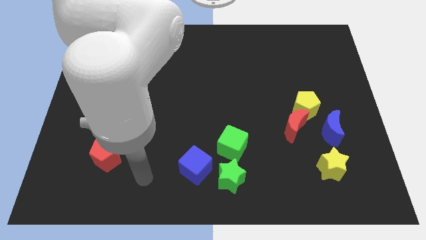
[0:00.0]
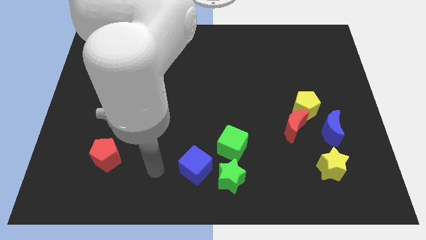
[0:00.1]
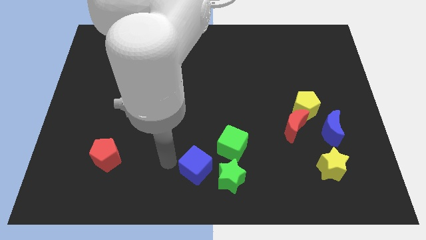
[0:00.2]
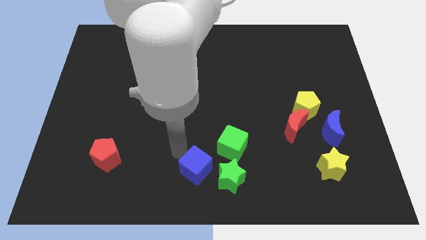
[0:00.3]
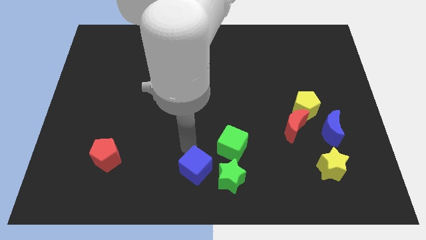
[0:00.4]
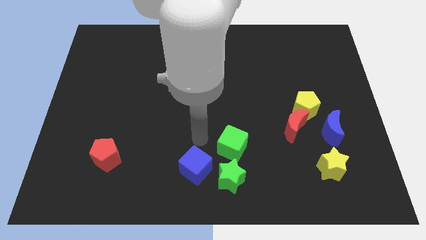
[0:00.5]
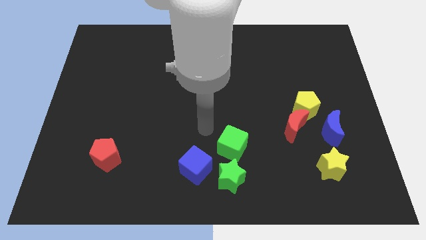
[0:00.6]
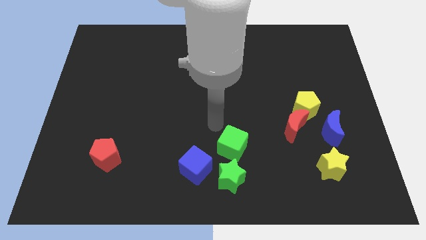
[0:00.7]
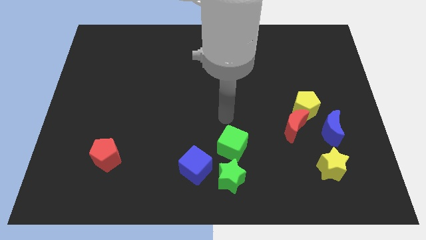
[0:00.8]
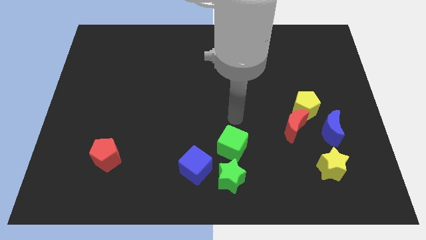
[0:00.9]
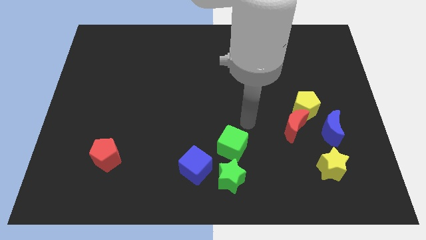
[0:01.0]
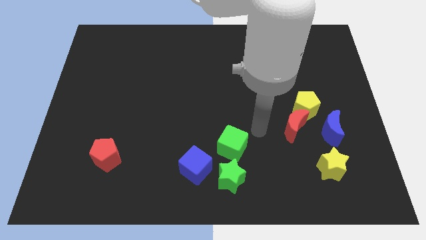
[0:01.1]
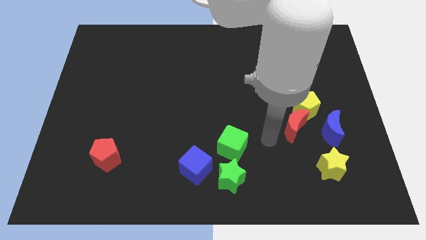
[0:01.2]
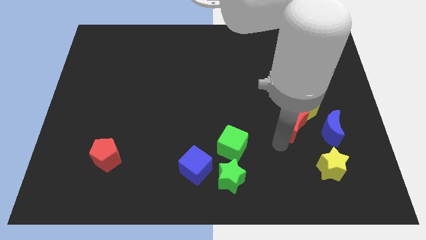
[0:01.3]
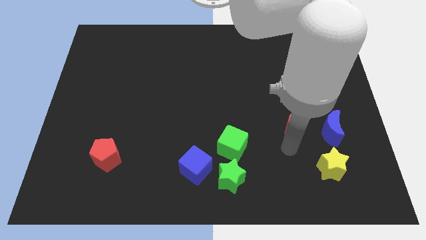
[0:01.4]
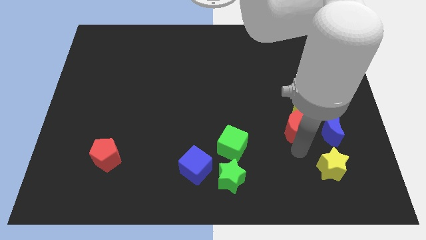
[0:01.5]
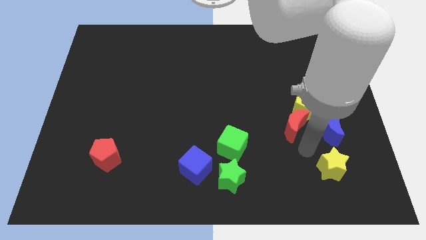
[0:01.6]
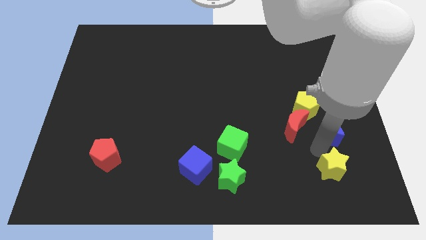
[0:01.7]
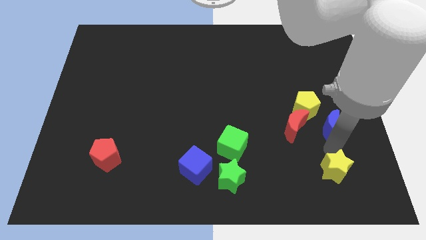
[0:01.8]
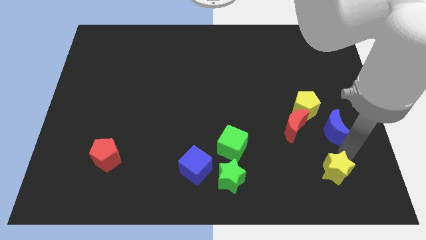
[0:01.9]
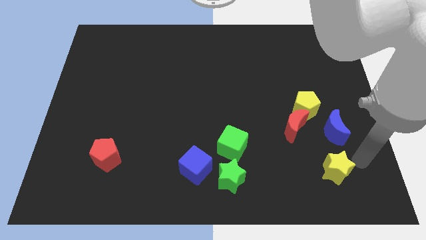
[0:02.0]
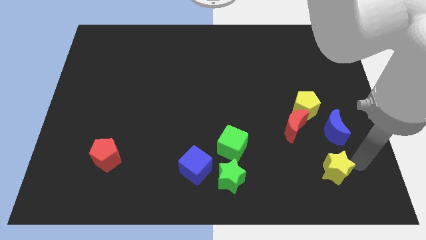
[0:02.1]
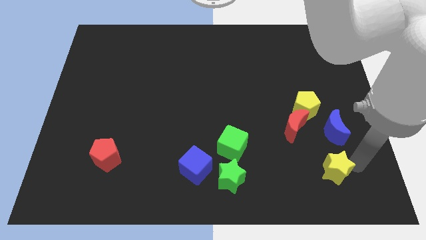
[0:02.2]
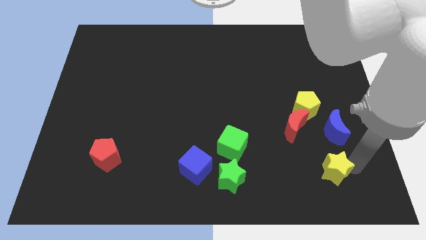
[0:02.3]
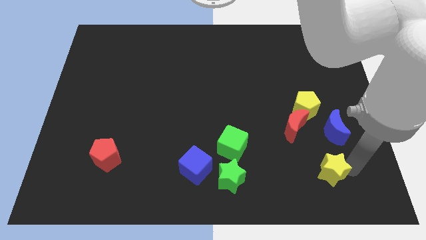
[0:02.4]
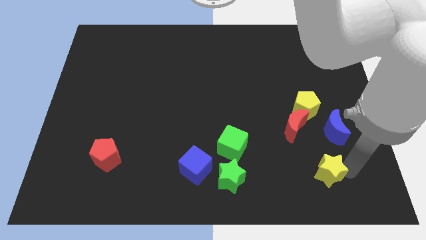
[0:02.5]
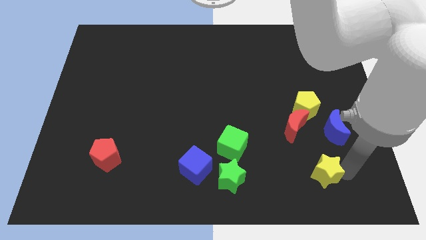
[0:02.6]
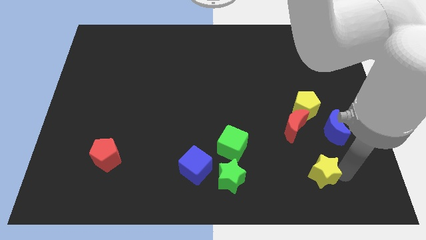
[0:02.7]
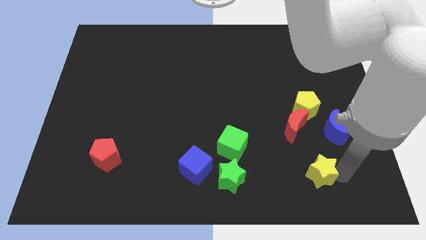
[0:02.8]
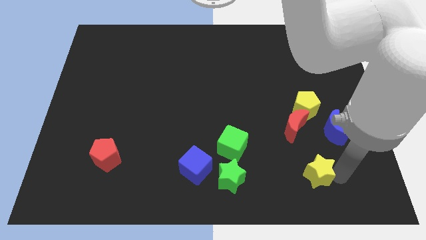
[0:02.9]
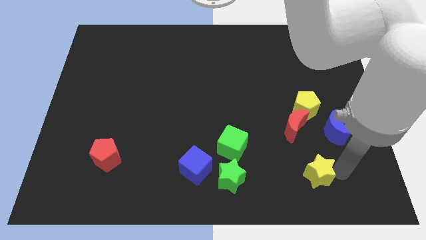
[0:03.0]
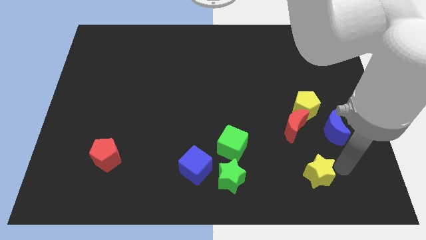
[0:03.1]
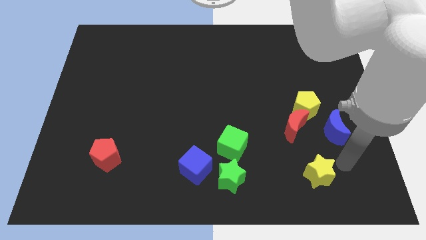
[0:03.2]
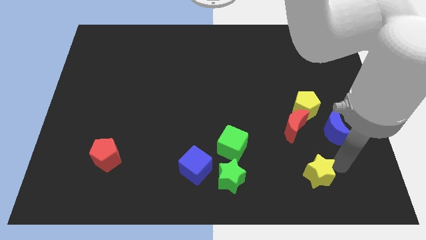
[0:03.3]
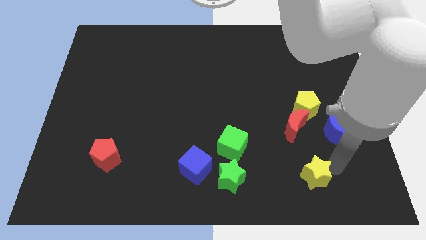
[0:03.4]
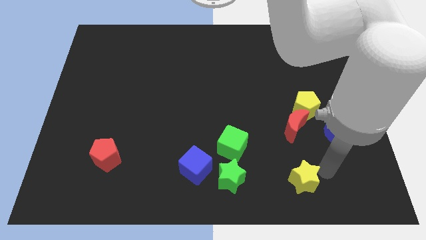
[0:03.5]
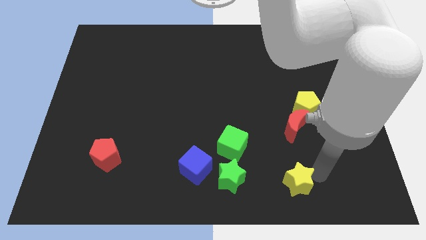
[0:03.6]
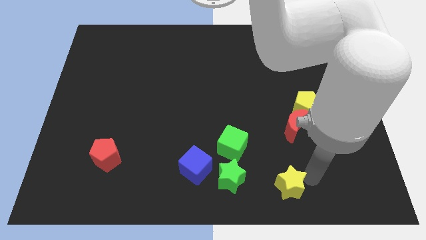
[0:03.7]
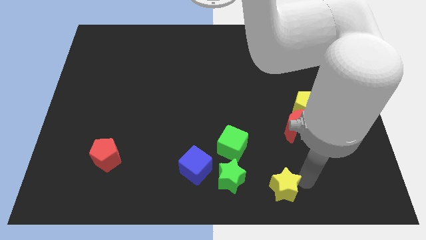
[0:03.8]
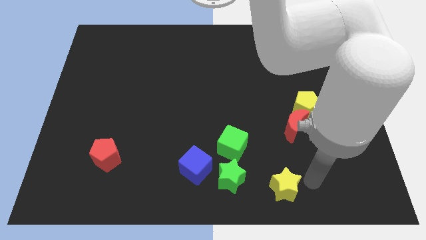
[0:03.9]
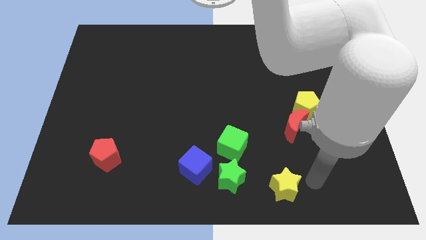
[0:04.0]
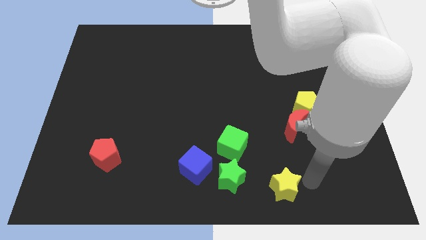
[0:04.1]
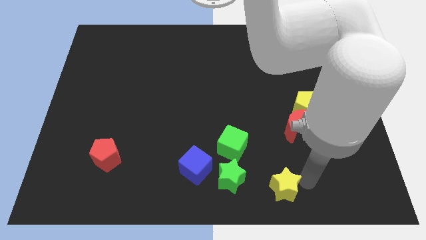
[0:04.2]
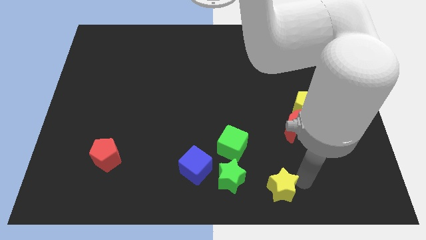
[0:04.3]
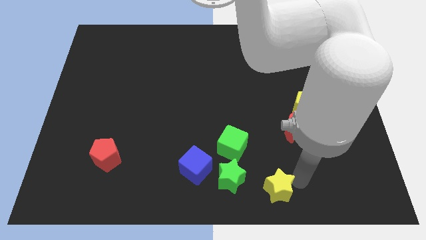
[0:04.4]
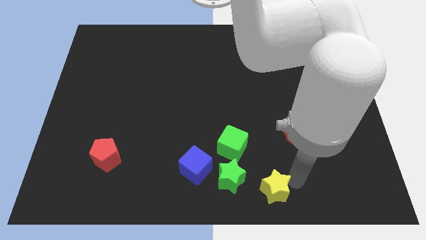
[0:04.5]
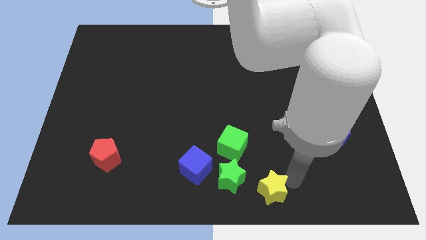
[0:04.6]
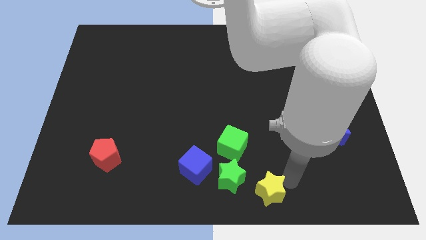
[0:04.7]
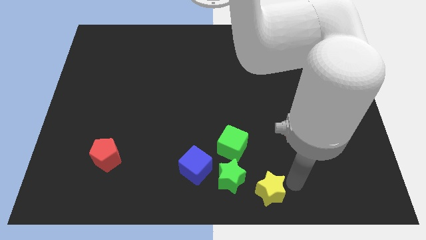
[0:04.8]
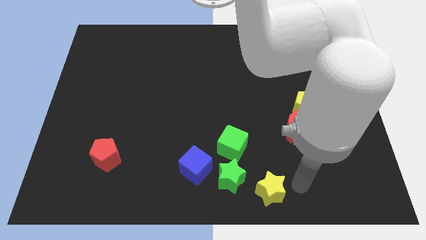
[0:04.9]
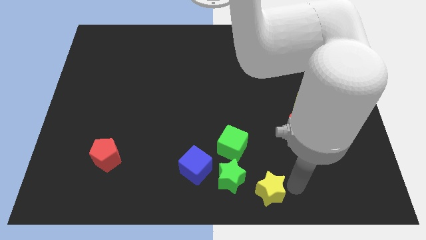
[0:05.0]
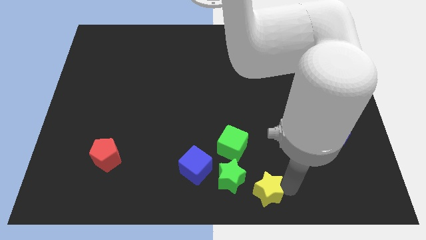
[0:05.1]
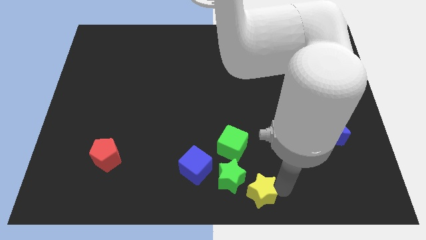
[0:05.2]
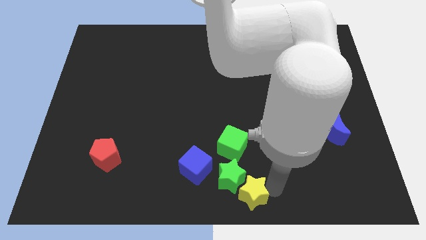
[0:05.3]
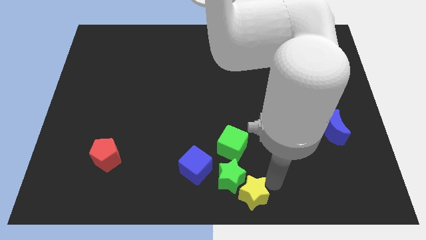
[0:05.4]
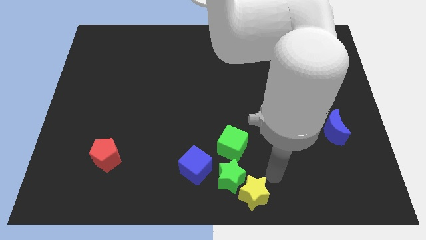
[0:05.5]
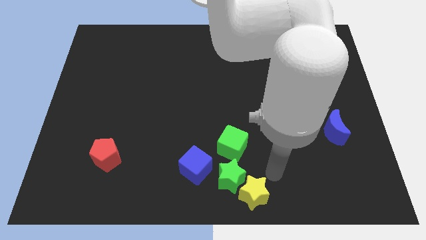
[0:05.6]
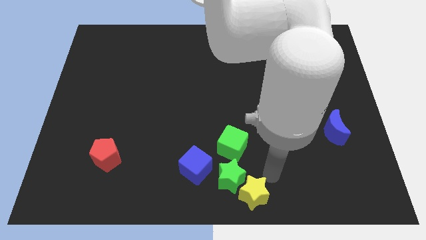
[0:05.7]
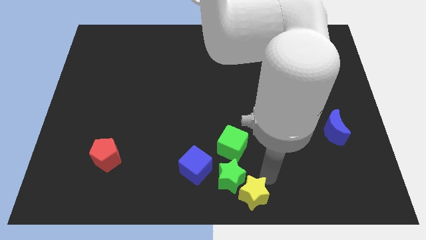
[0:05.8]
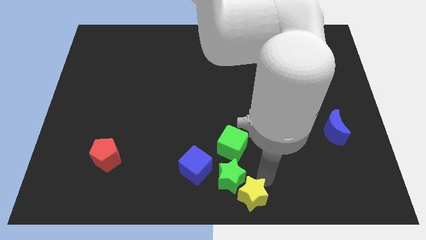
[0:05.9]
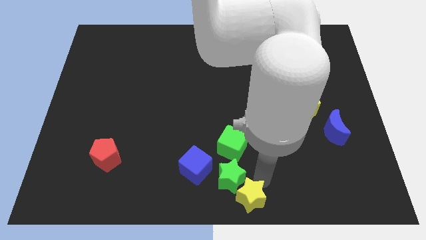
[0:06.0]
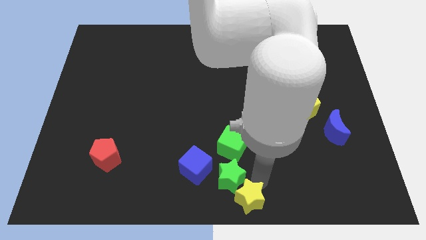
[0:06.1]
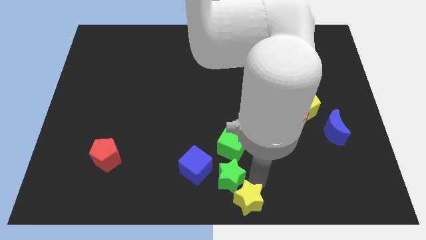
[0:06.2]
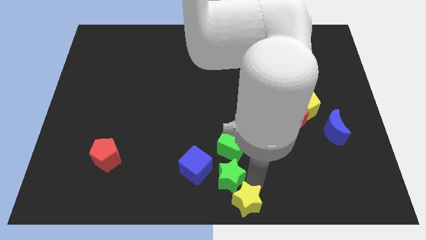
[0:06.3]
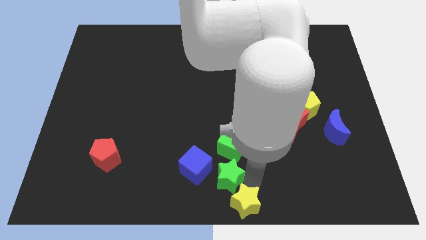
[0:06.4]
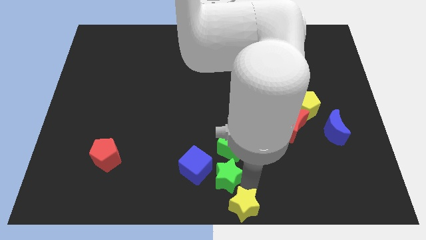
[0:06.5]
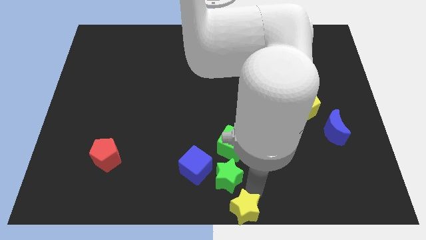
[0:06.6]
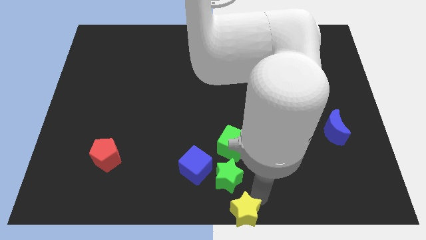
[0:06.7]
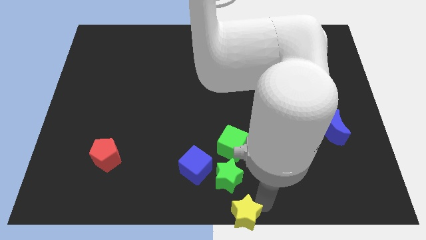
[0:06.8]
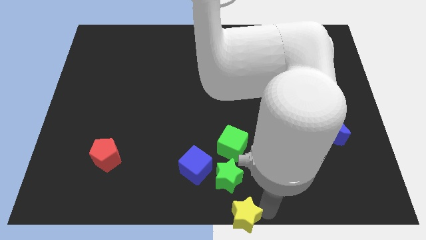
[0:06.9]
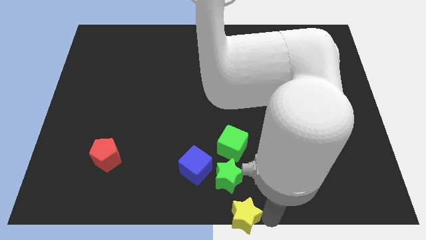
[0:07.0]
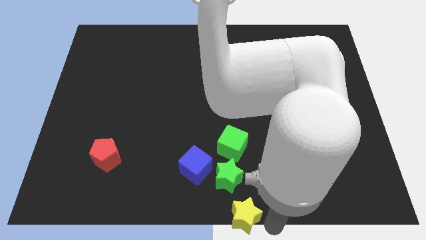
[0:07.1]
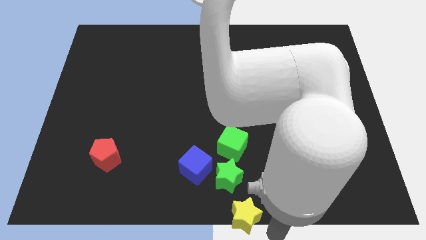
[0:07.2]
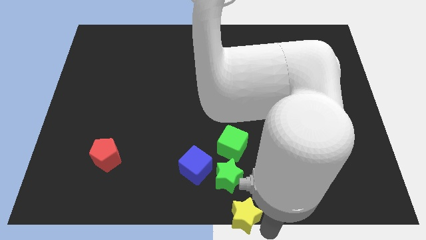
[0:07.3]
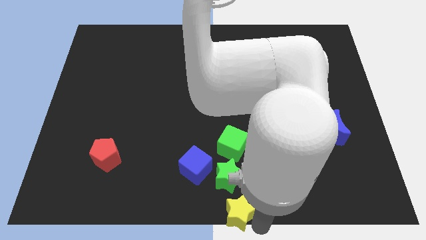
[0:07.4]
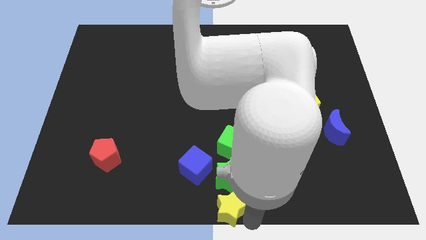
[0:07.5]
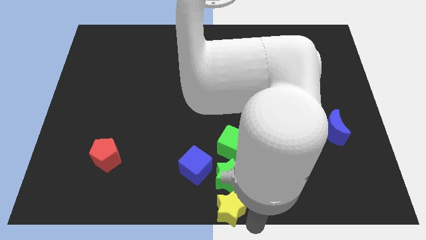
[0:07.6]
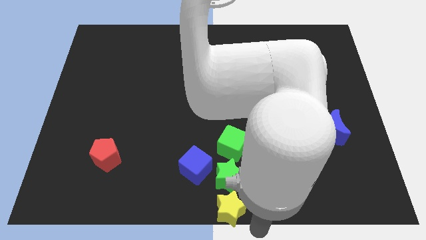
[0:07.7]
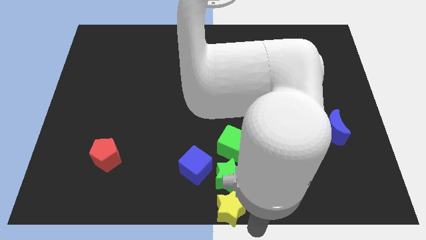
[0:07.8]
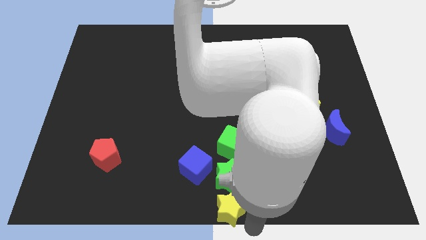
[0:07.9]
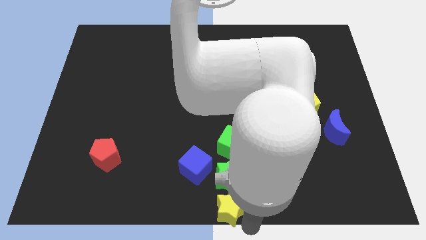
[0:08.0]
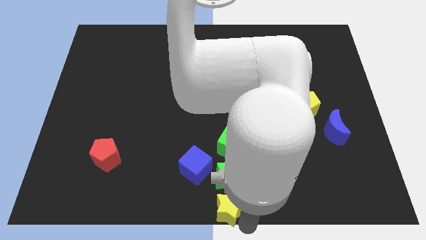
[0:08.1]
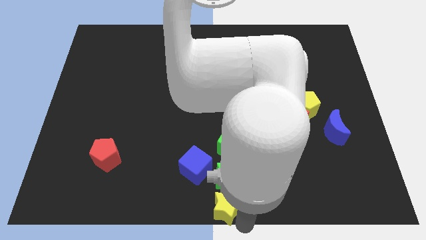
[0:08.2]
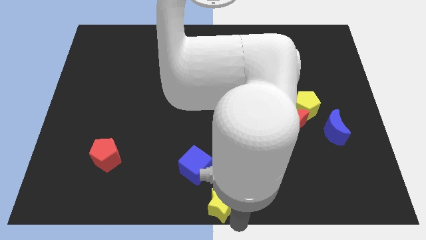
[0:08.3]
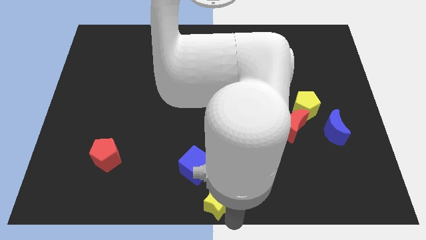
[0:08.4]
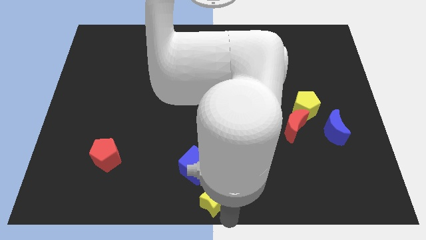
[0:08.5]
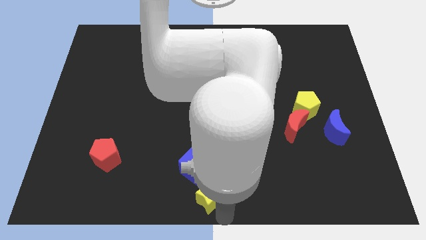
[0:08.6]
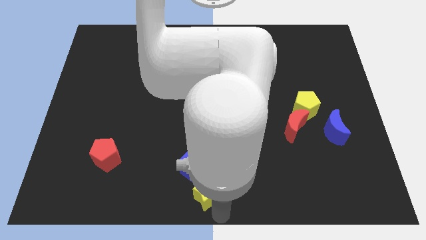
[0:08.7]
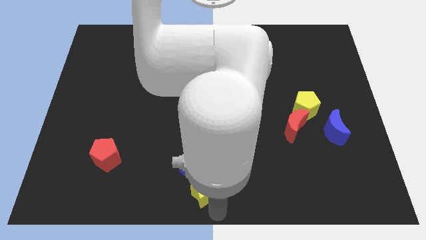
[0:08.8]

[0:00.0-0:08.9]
put the yellow star next to the blue cube
